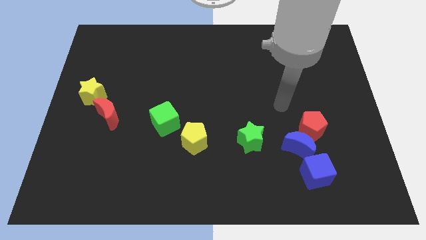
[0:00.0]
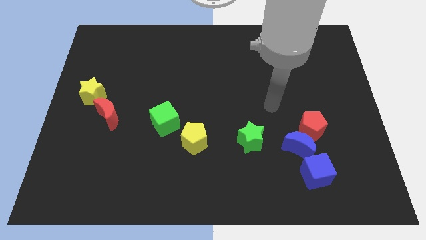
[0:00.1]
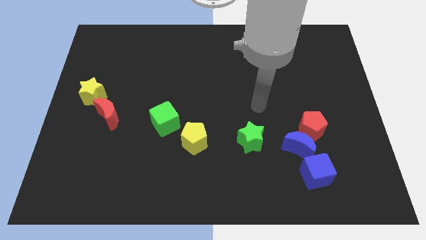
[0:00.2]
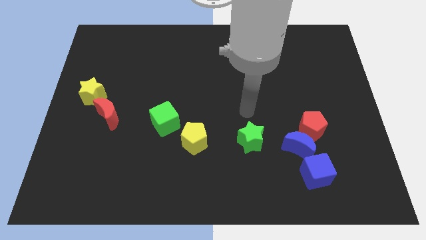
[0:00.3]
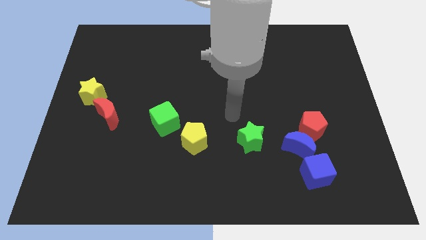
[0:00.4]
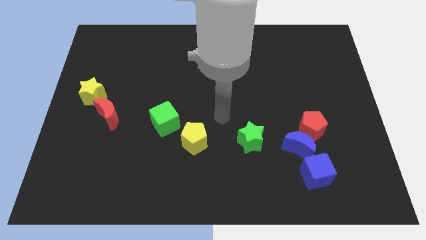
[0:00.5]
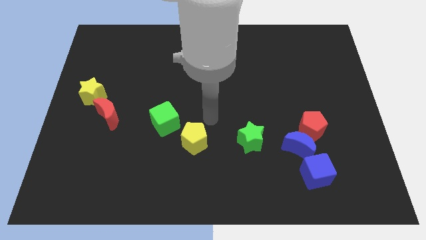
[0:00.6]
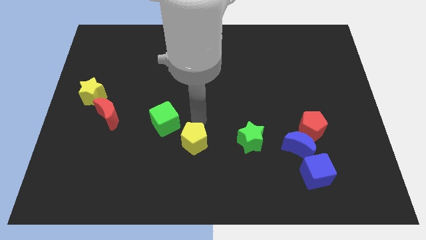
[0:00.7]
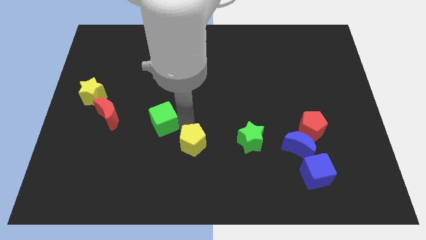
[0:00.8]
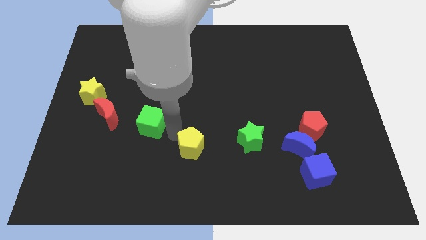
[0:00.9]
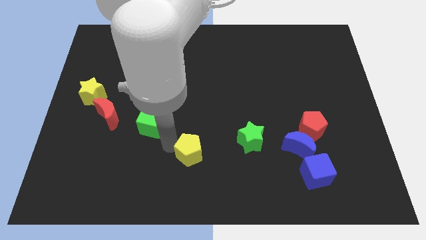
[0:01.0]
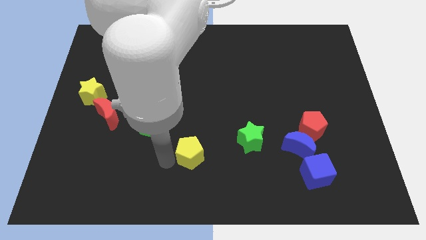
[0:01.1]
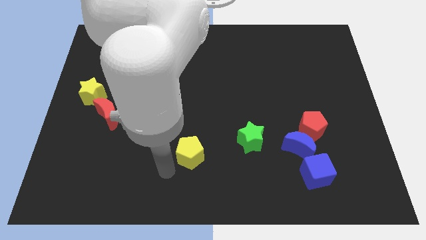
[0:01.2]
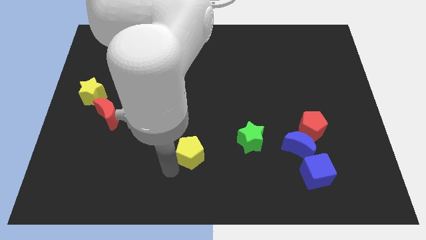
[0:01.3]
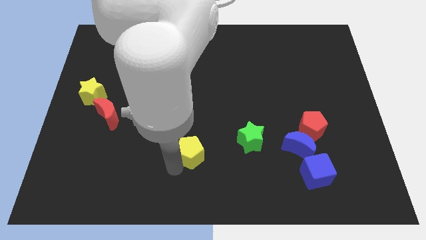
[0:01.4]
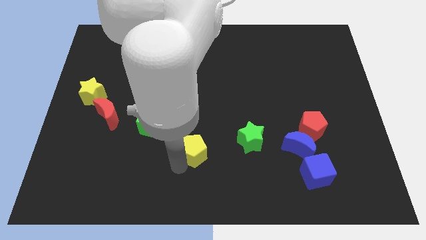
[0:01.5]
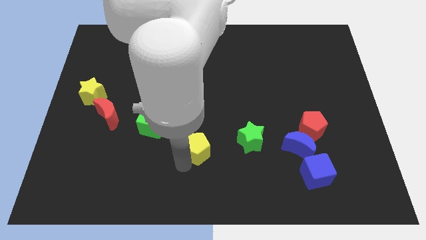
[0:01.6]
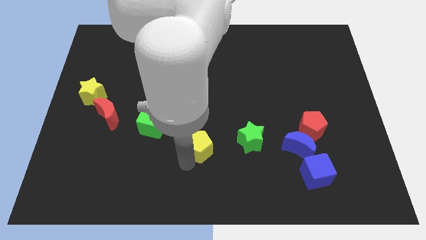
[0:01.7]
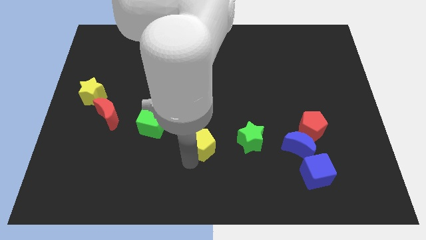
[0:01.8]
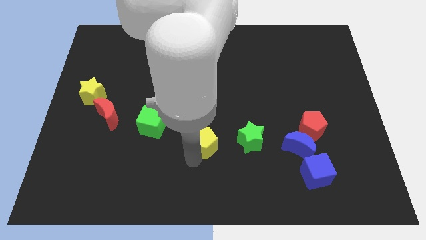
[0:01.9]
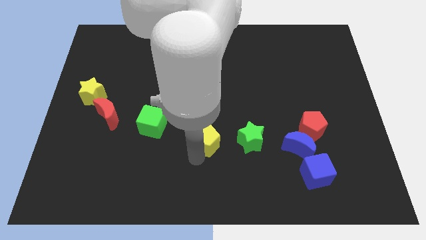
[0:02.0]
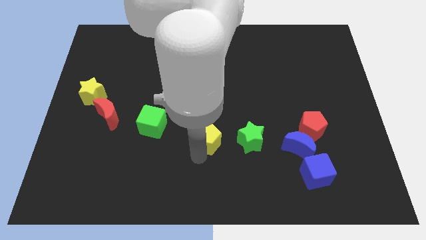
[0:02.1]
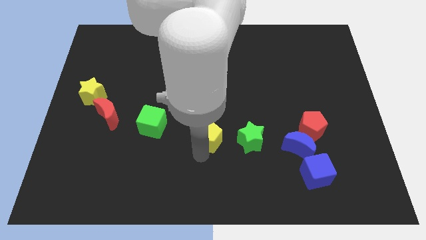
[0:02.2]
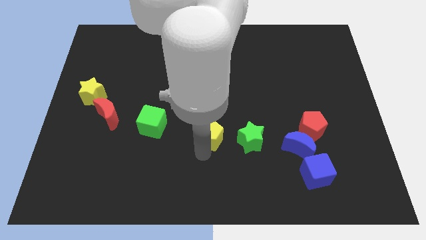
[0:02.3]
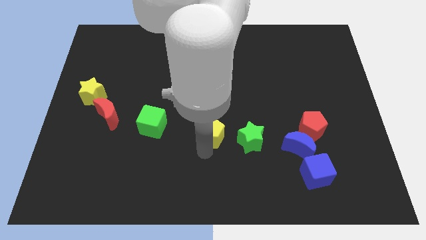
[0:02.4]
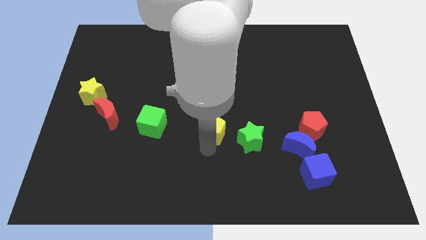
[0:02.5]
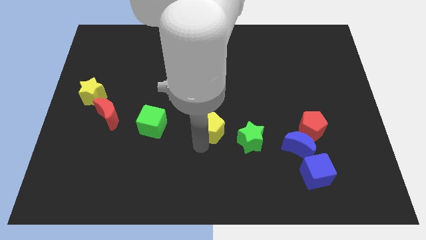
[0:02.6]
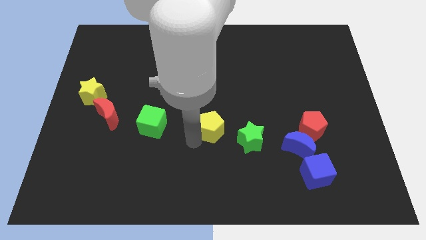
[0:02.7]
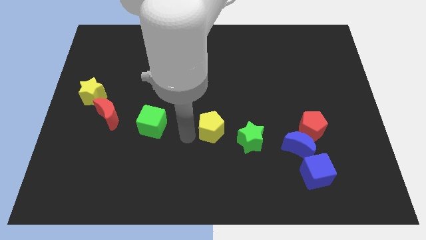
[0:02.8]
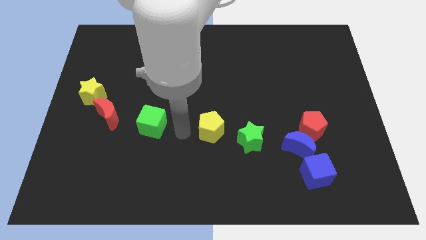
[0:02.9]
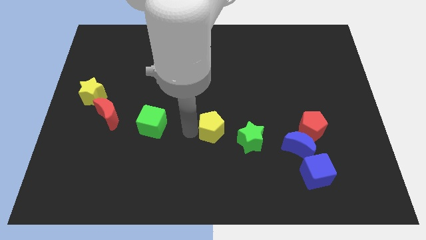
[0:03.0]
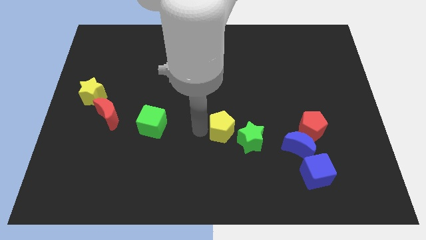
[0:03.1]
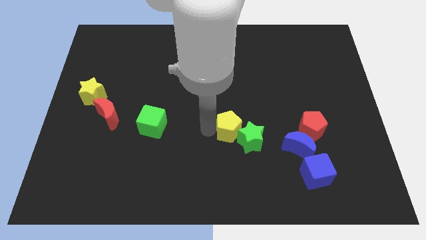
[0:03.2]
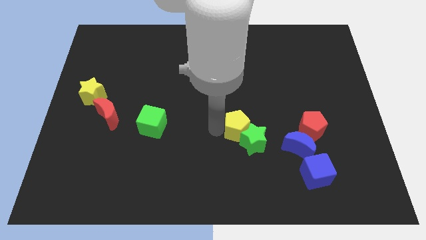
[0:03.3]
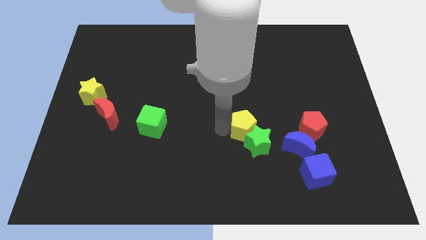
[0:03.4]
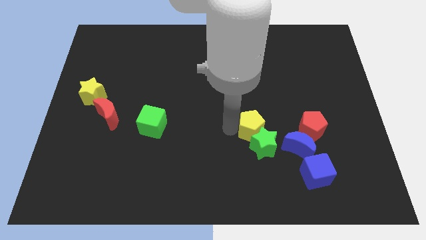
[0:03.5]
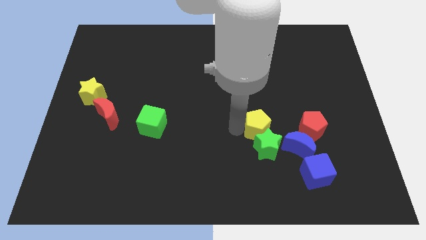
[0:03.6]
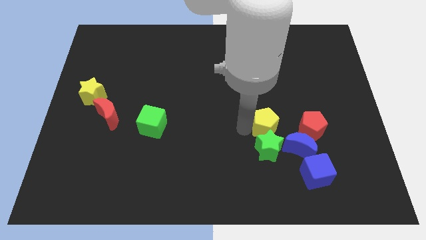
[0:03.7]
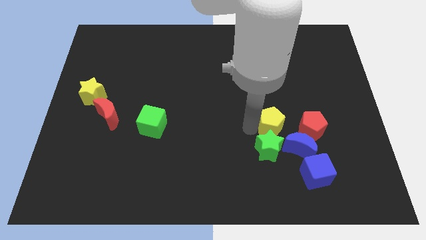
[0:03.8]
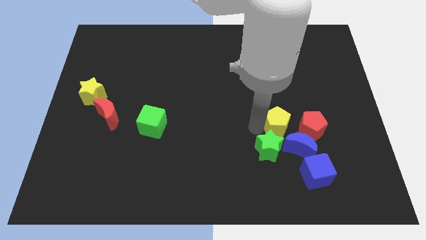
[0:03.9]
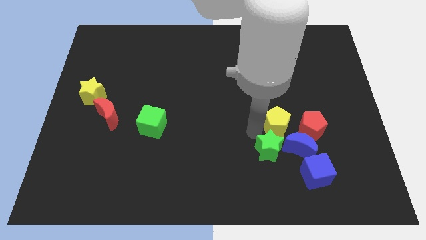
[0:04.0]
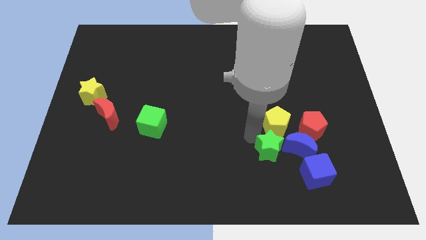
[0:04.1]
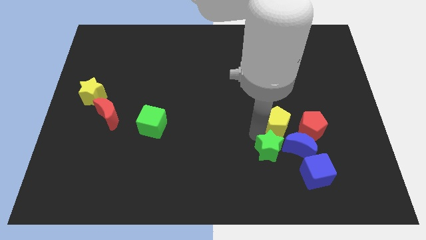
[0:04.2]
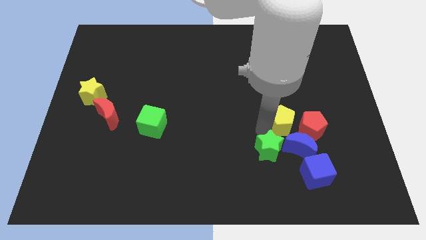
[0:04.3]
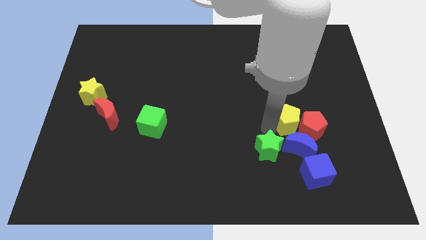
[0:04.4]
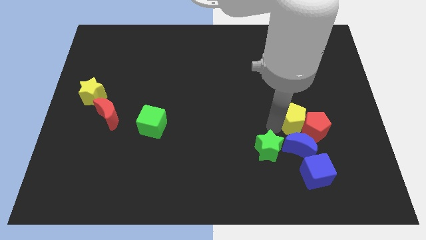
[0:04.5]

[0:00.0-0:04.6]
move the yellow pentagon to the right

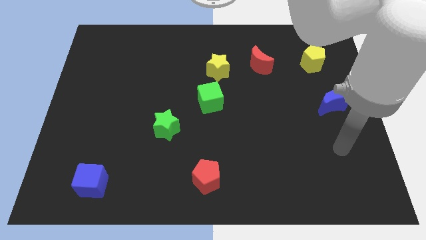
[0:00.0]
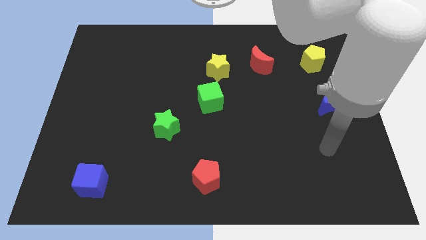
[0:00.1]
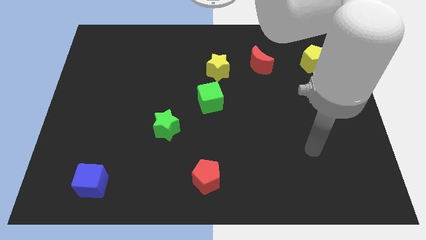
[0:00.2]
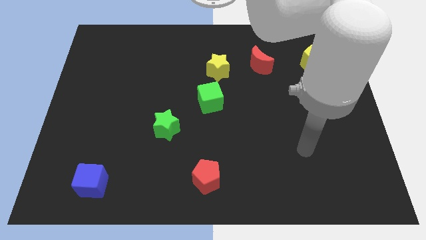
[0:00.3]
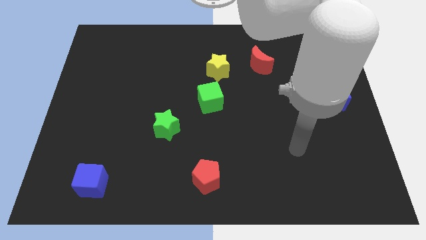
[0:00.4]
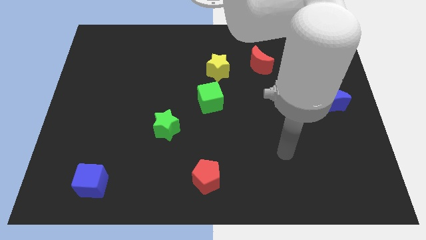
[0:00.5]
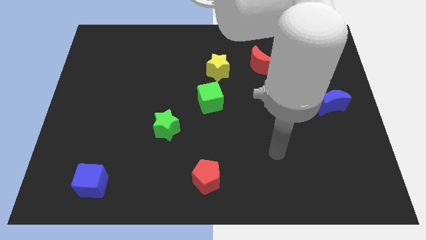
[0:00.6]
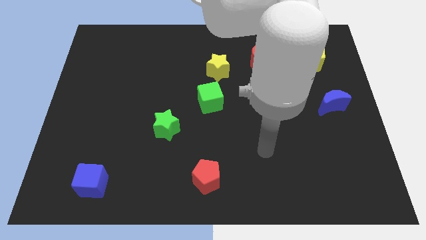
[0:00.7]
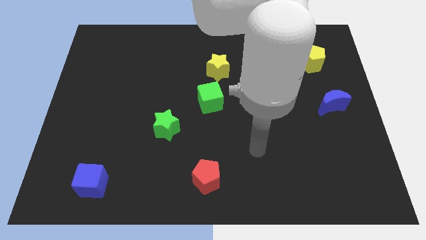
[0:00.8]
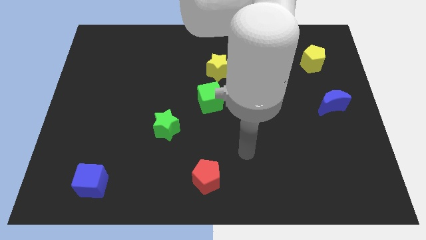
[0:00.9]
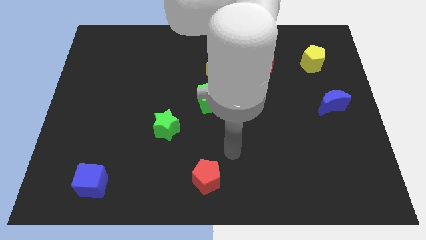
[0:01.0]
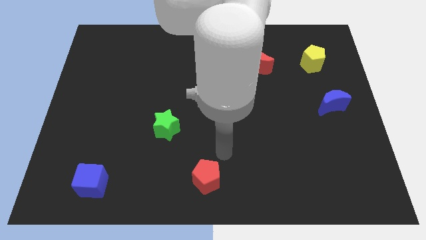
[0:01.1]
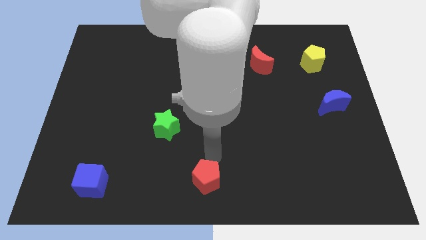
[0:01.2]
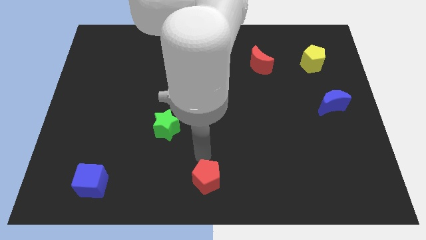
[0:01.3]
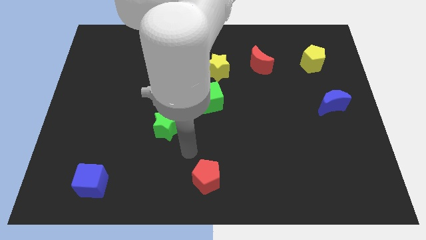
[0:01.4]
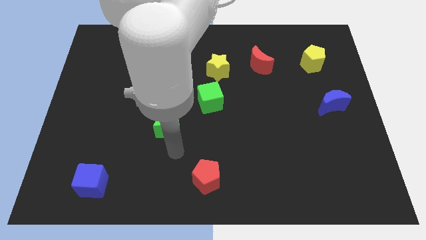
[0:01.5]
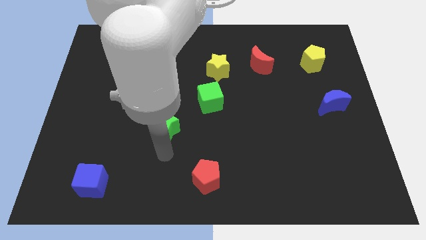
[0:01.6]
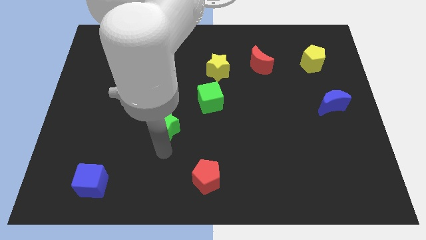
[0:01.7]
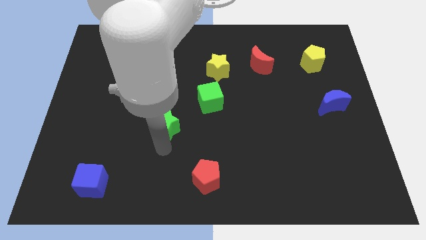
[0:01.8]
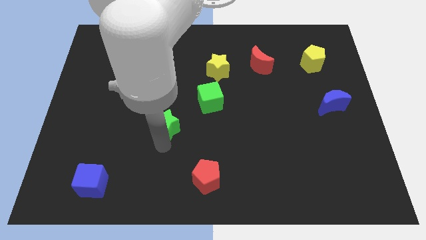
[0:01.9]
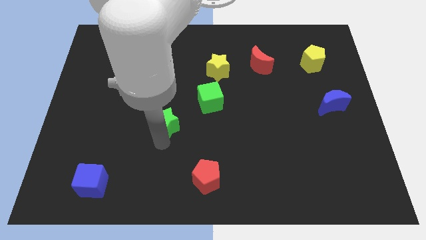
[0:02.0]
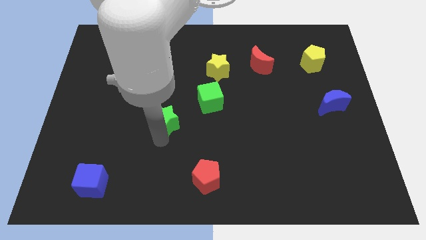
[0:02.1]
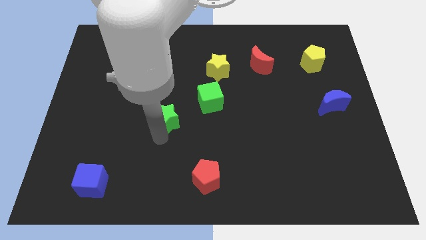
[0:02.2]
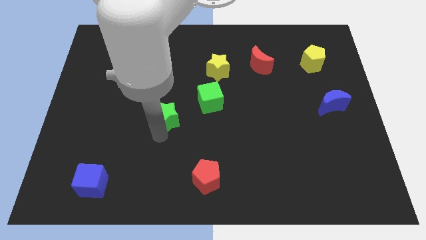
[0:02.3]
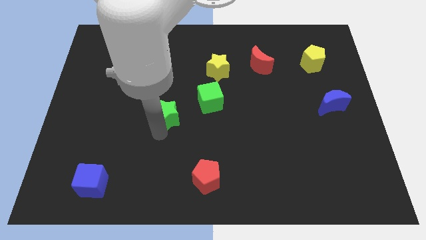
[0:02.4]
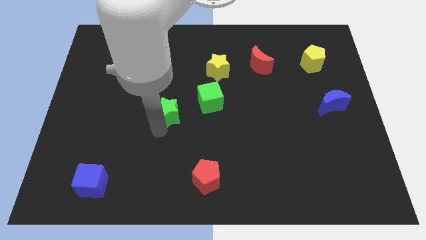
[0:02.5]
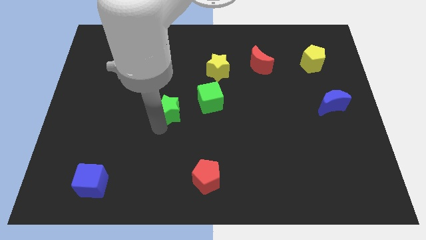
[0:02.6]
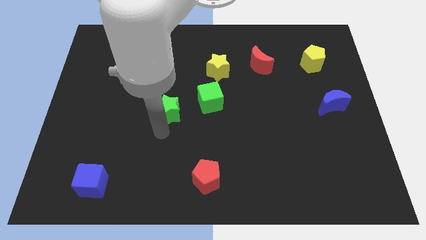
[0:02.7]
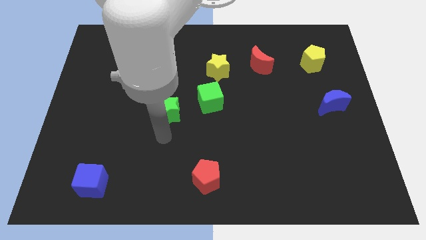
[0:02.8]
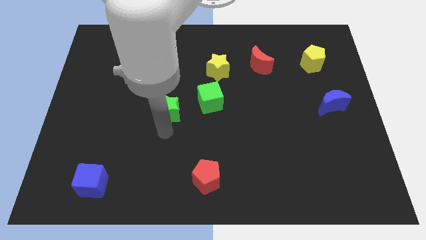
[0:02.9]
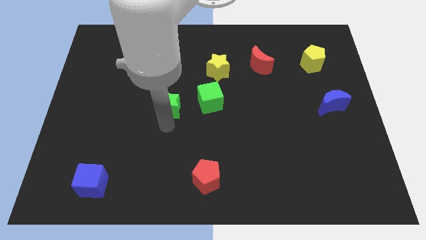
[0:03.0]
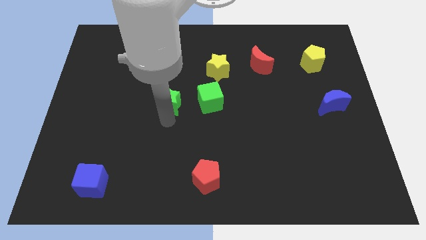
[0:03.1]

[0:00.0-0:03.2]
slightly move the green star upwards

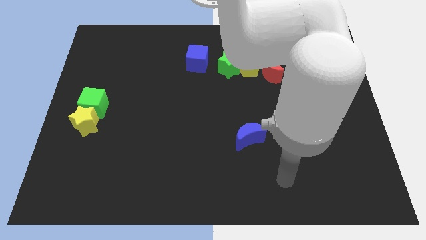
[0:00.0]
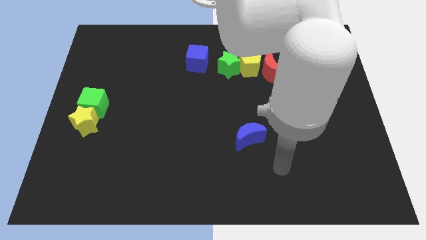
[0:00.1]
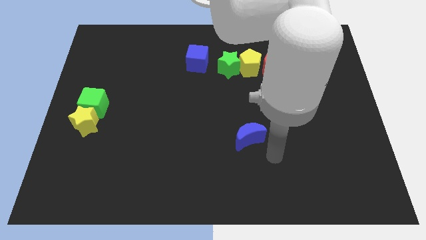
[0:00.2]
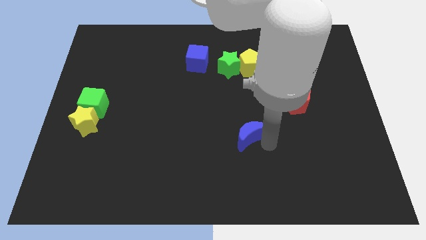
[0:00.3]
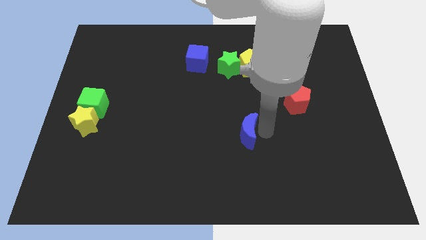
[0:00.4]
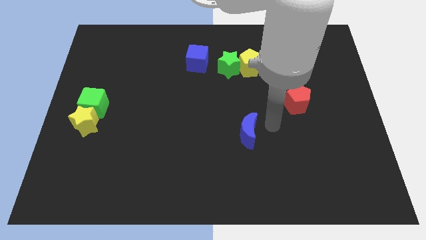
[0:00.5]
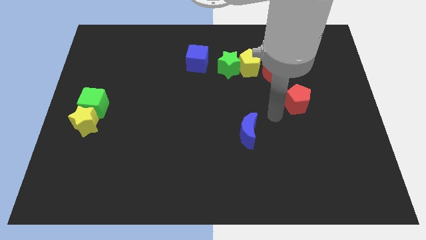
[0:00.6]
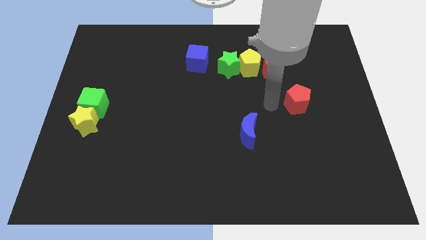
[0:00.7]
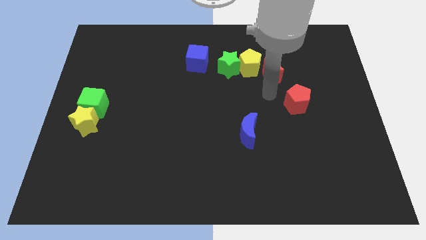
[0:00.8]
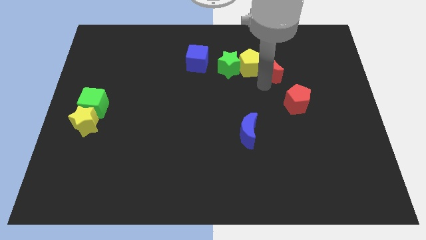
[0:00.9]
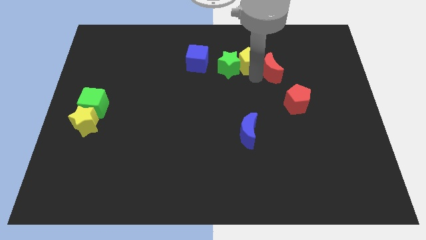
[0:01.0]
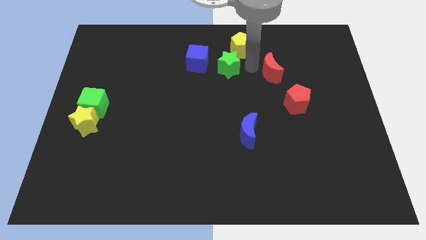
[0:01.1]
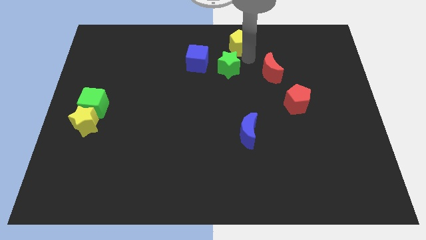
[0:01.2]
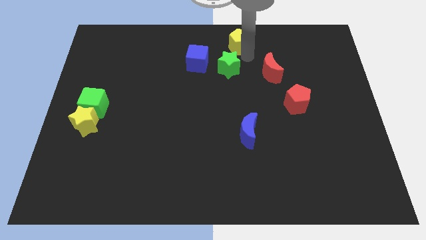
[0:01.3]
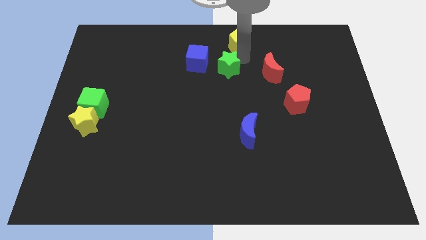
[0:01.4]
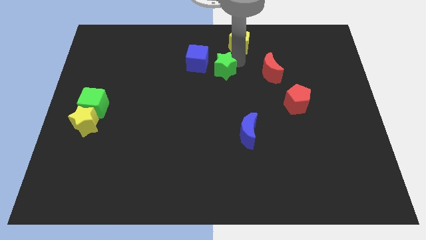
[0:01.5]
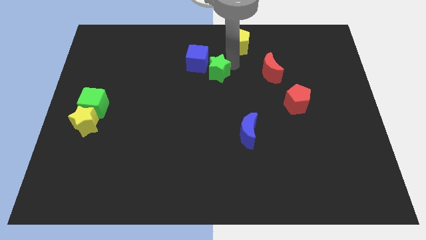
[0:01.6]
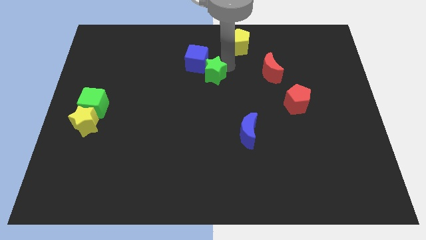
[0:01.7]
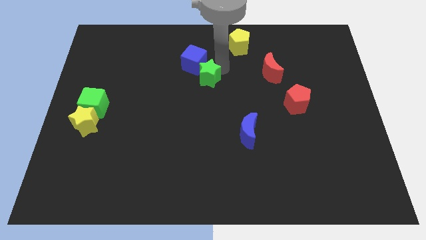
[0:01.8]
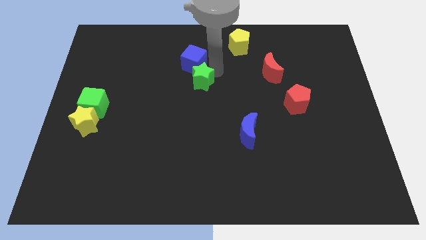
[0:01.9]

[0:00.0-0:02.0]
move the green star somewhat downwards and left
